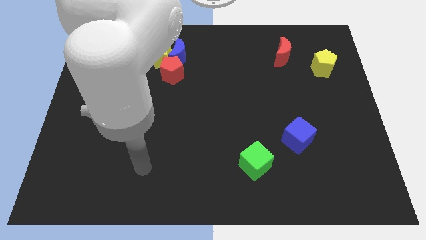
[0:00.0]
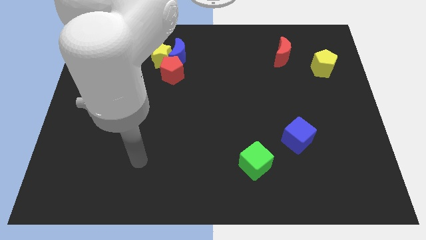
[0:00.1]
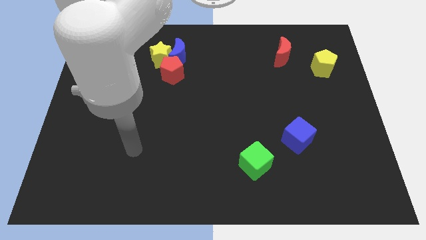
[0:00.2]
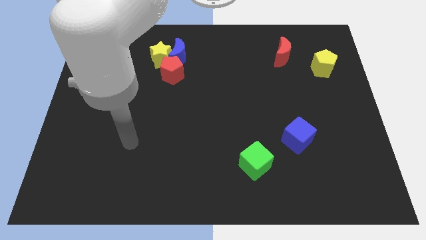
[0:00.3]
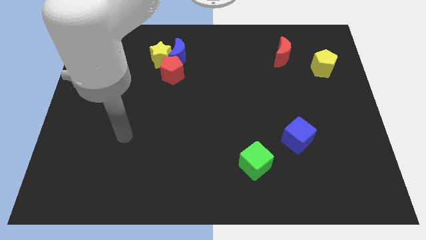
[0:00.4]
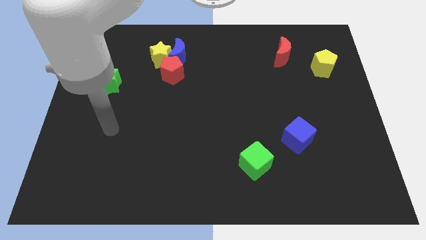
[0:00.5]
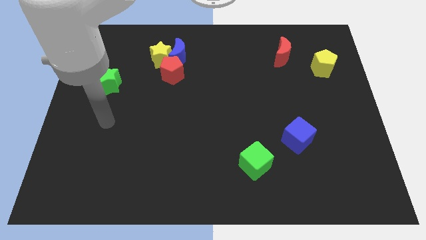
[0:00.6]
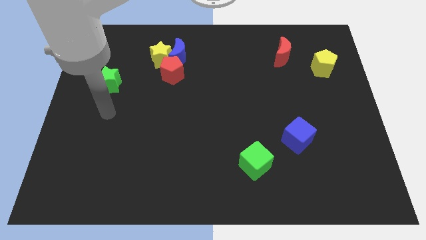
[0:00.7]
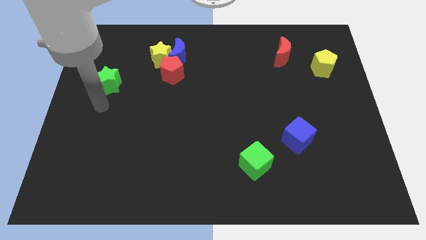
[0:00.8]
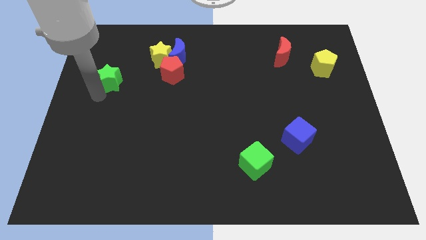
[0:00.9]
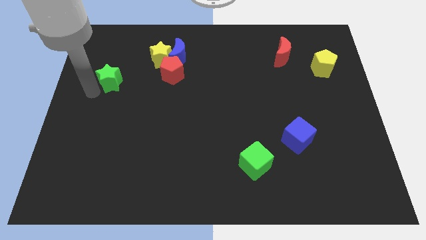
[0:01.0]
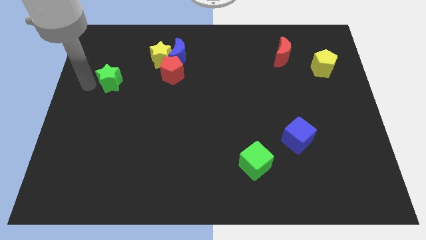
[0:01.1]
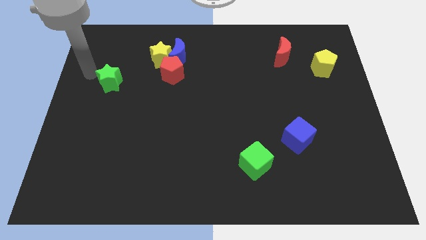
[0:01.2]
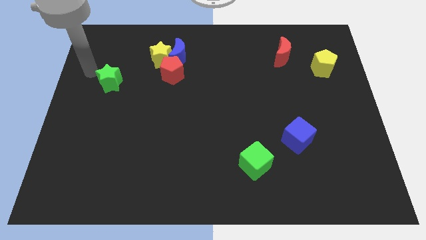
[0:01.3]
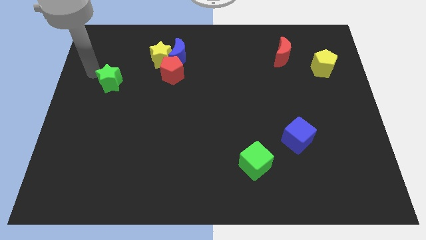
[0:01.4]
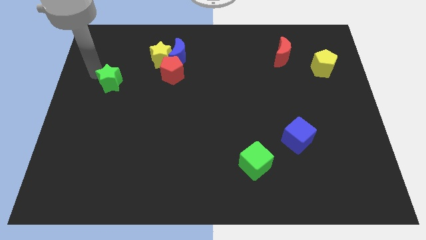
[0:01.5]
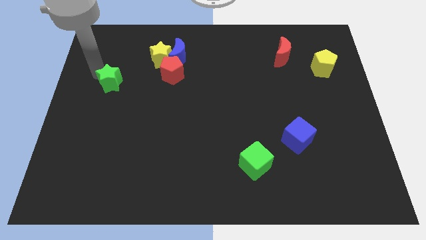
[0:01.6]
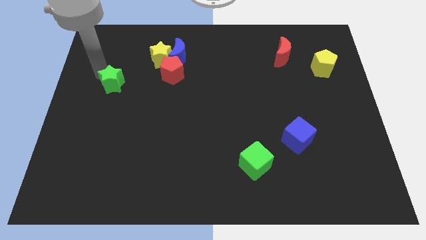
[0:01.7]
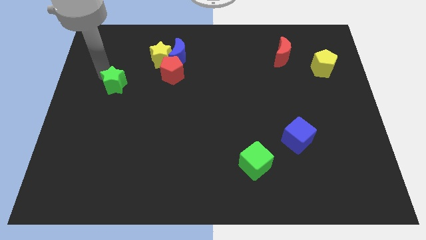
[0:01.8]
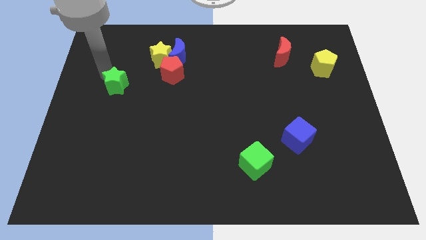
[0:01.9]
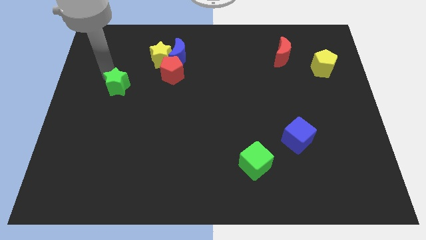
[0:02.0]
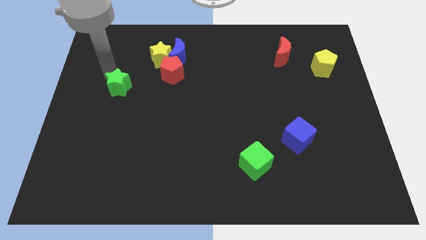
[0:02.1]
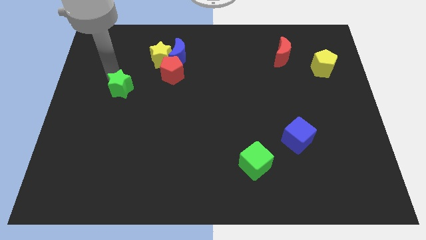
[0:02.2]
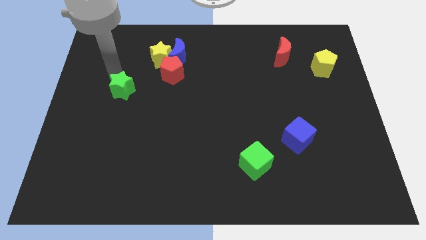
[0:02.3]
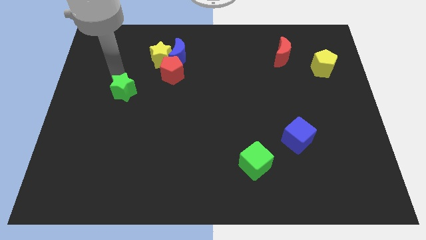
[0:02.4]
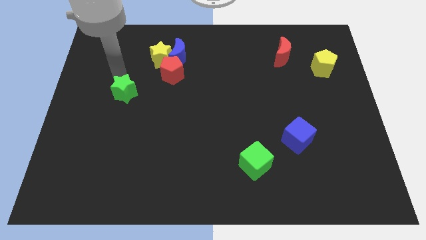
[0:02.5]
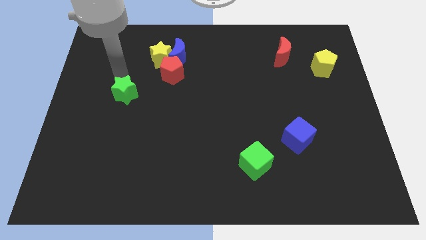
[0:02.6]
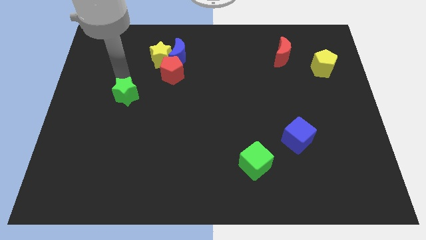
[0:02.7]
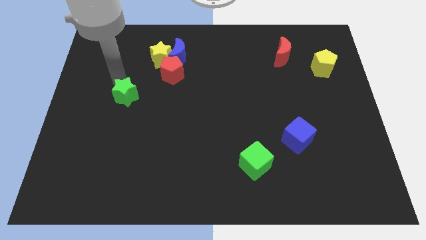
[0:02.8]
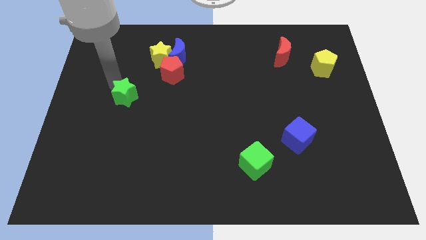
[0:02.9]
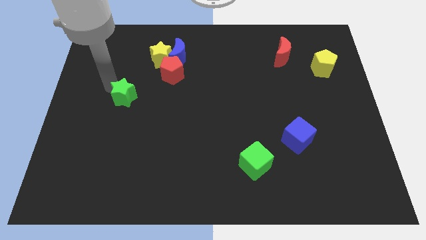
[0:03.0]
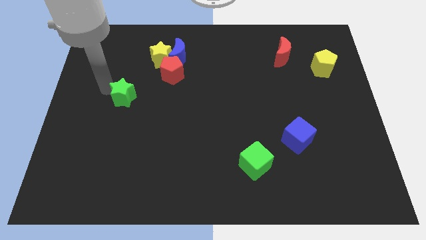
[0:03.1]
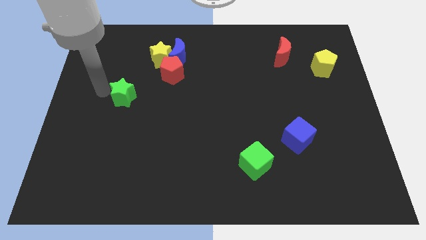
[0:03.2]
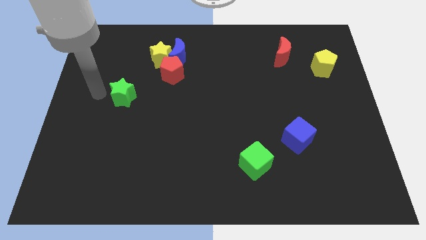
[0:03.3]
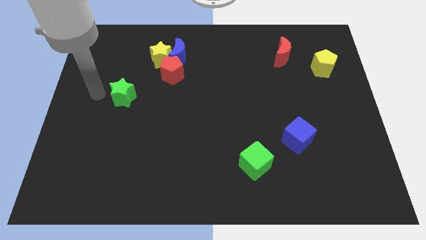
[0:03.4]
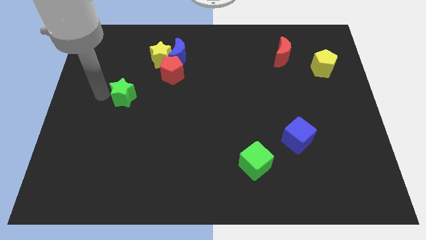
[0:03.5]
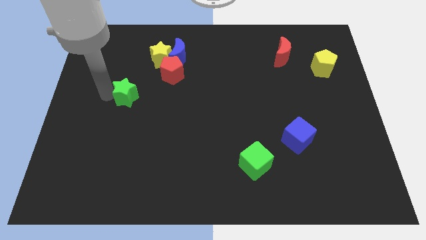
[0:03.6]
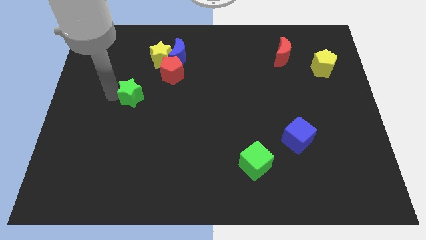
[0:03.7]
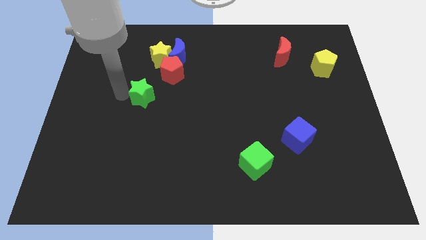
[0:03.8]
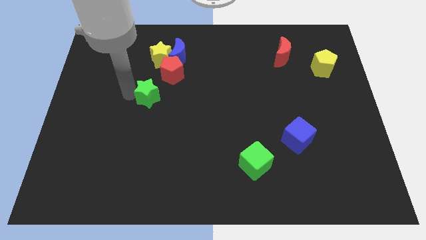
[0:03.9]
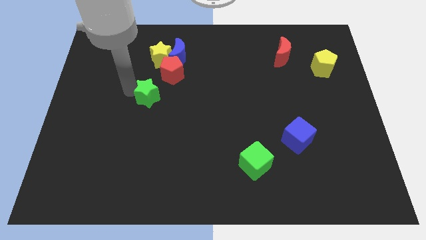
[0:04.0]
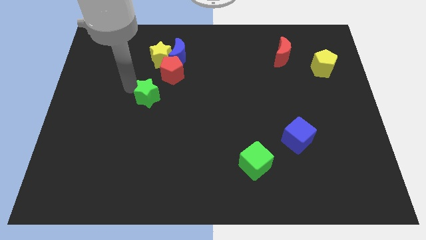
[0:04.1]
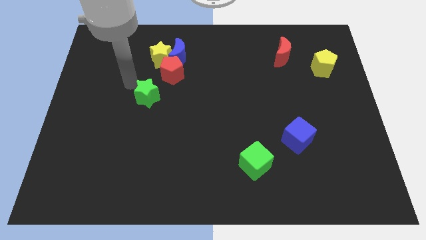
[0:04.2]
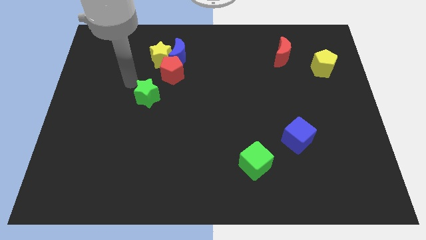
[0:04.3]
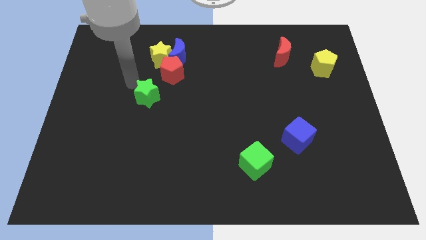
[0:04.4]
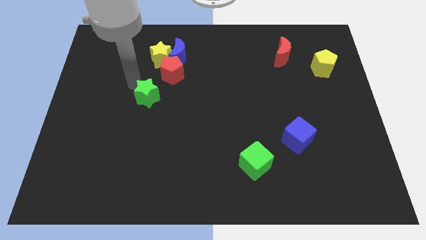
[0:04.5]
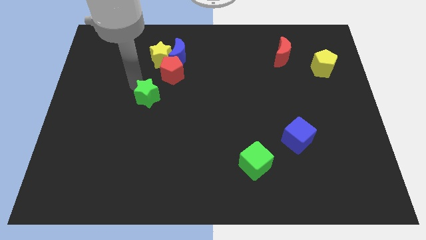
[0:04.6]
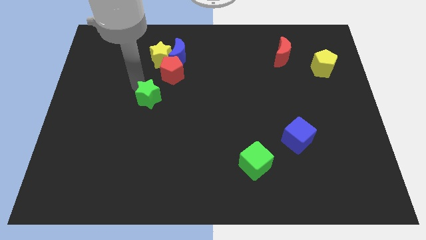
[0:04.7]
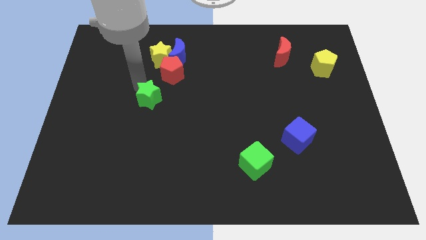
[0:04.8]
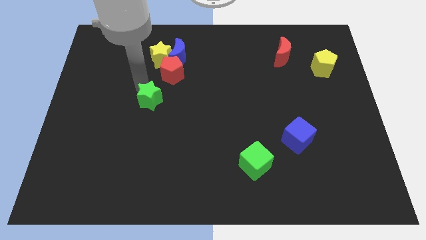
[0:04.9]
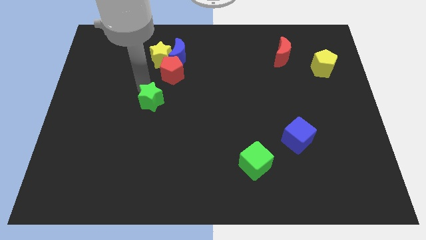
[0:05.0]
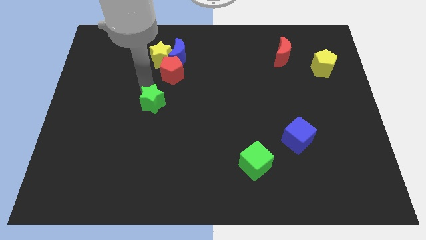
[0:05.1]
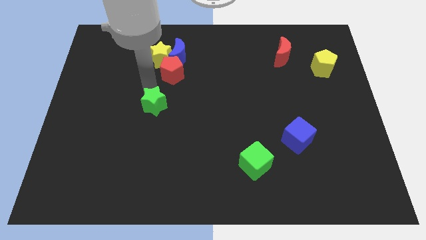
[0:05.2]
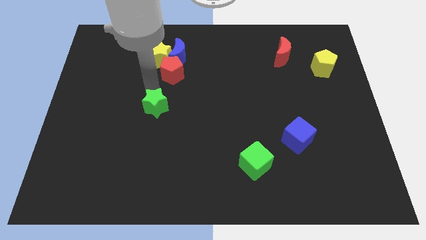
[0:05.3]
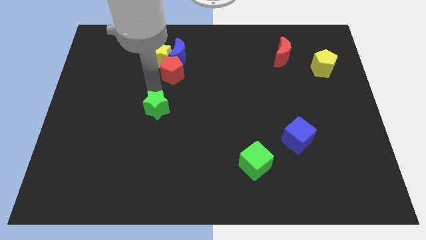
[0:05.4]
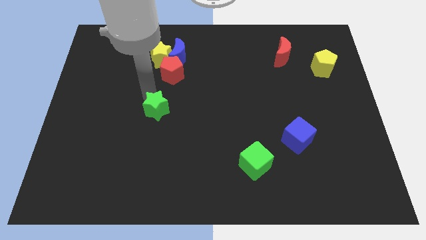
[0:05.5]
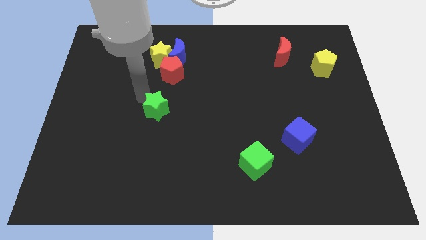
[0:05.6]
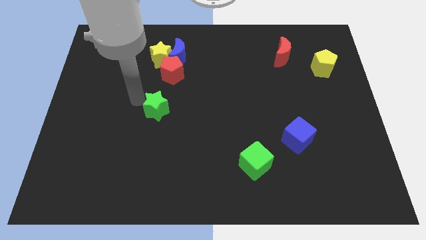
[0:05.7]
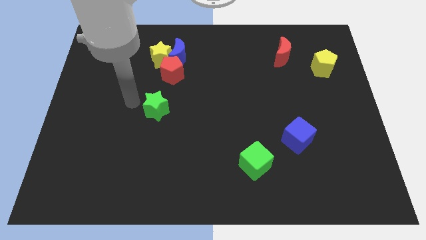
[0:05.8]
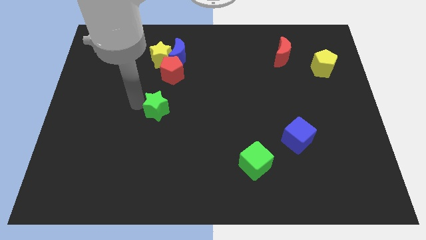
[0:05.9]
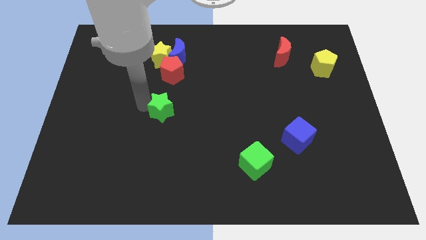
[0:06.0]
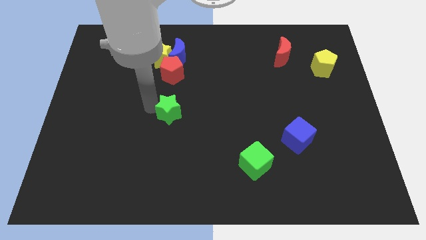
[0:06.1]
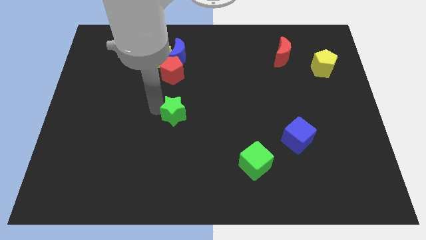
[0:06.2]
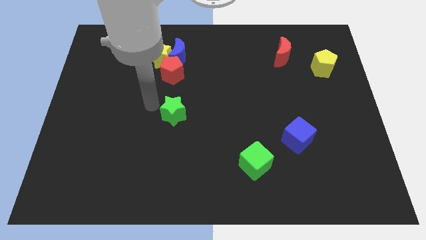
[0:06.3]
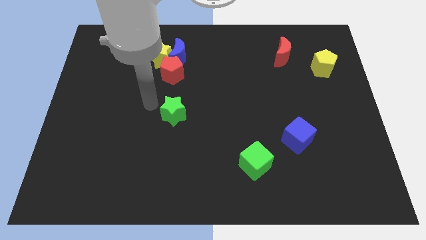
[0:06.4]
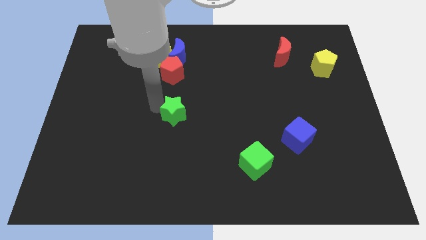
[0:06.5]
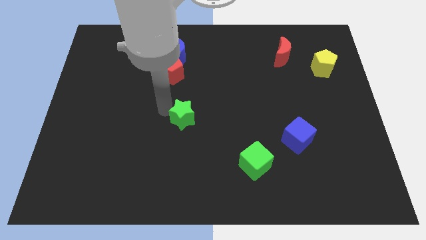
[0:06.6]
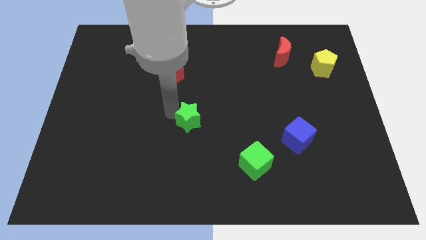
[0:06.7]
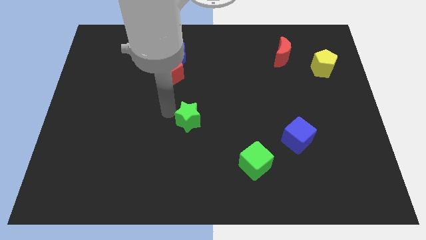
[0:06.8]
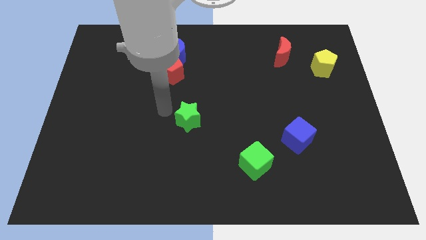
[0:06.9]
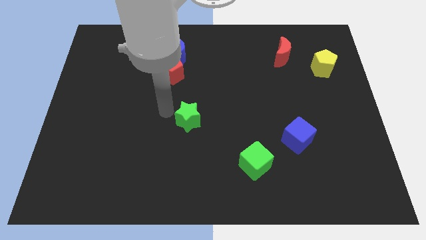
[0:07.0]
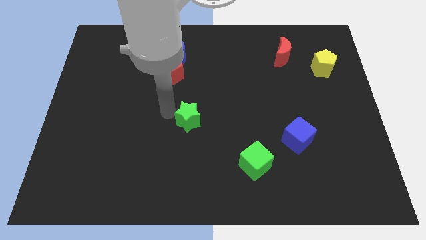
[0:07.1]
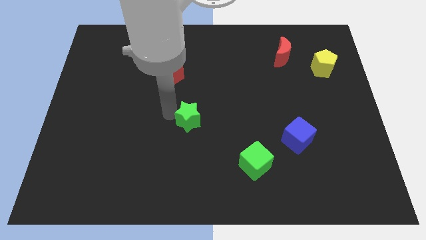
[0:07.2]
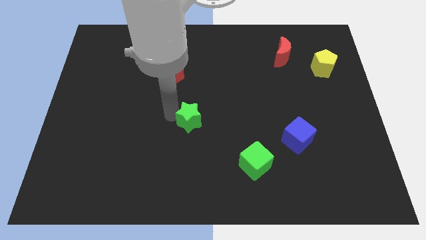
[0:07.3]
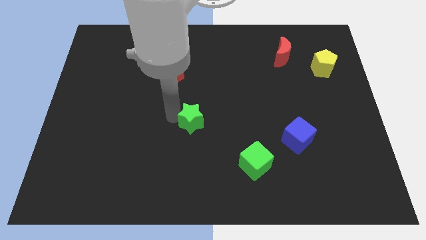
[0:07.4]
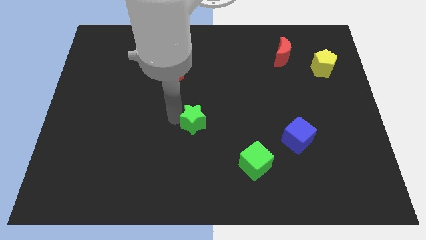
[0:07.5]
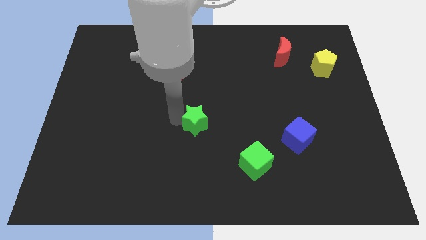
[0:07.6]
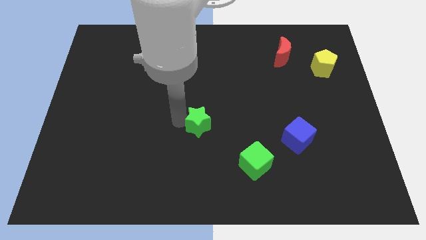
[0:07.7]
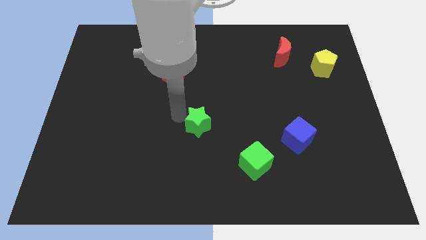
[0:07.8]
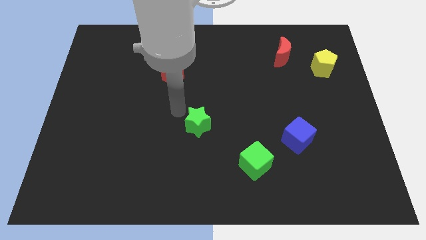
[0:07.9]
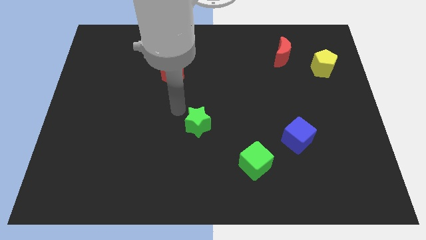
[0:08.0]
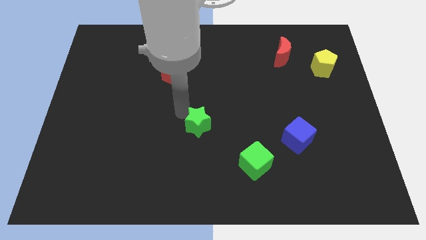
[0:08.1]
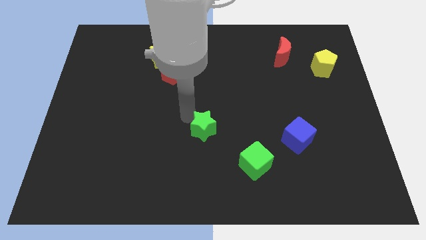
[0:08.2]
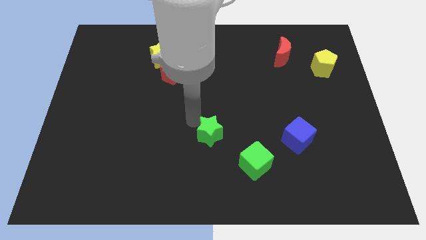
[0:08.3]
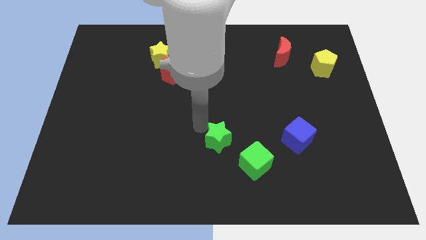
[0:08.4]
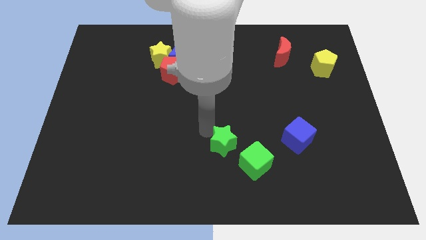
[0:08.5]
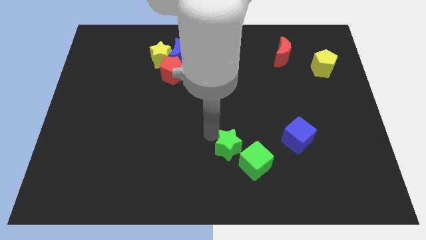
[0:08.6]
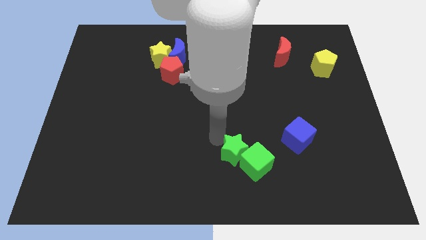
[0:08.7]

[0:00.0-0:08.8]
push the green star next to the green cube
